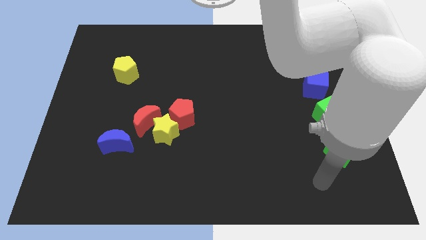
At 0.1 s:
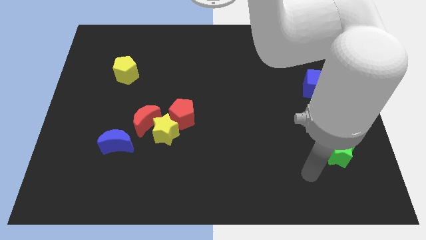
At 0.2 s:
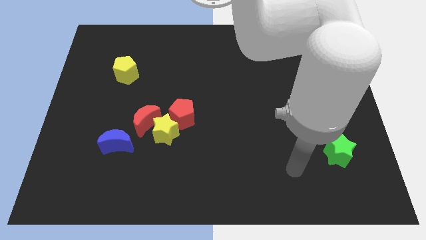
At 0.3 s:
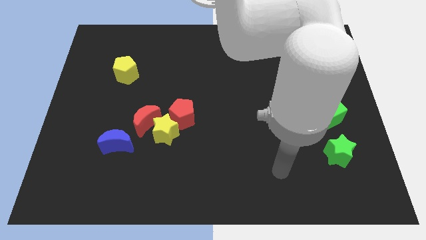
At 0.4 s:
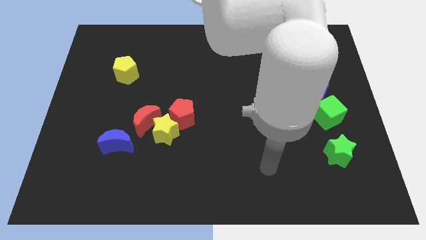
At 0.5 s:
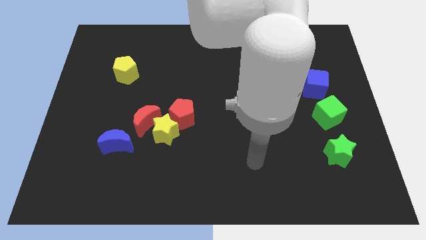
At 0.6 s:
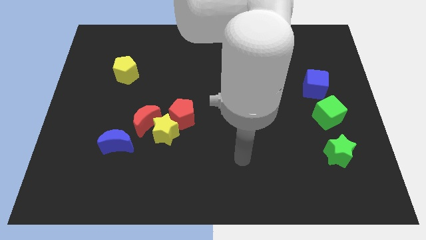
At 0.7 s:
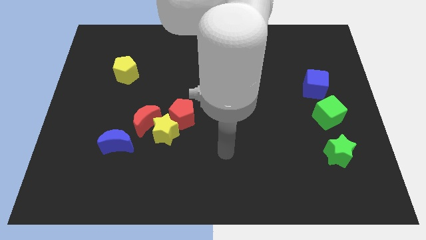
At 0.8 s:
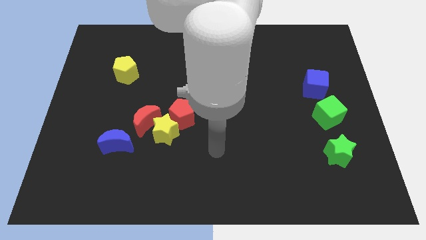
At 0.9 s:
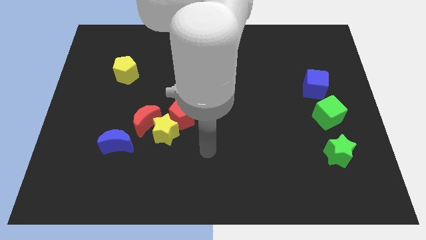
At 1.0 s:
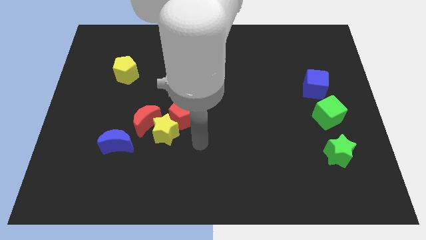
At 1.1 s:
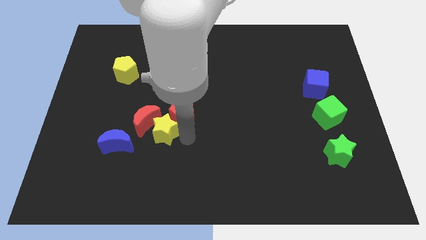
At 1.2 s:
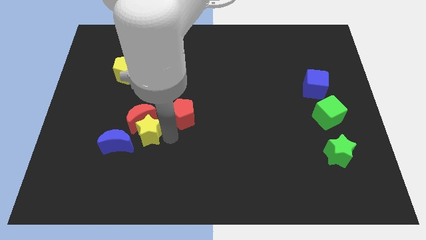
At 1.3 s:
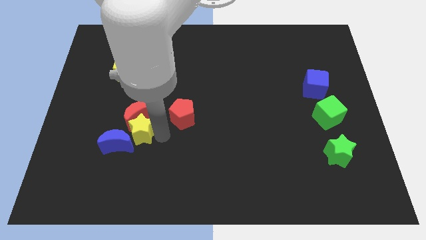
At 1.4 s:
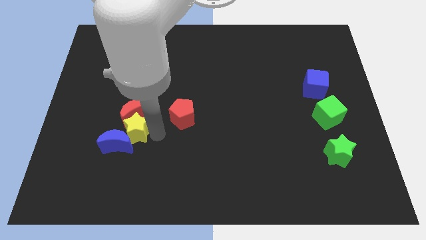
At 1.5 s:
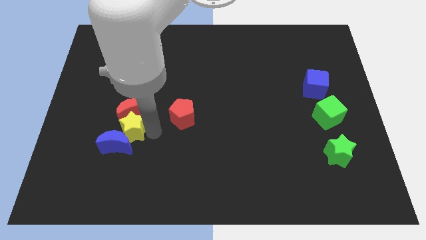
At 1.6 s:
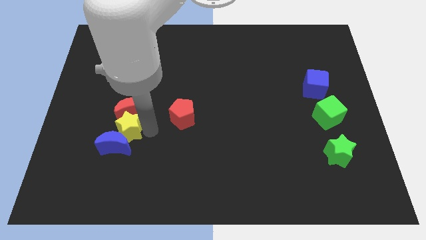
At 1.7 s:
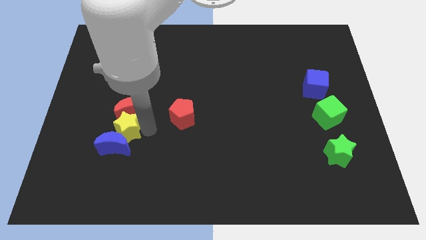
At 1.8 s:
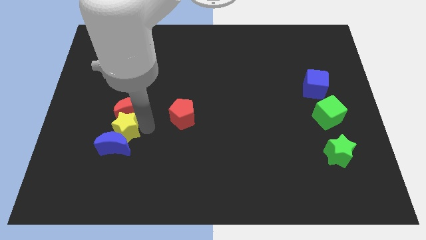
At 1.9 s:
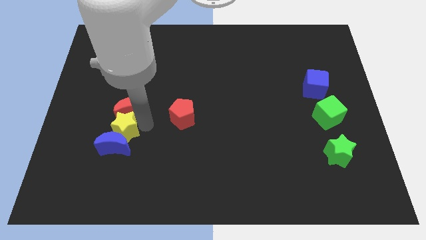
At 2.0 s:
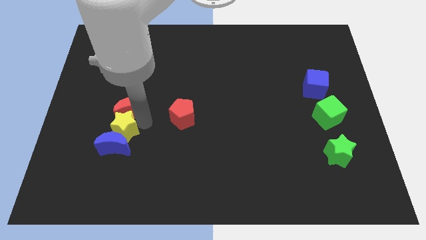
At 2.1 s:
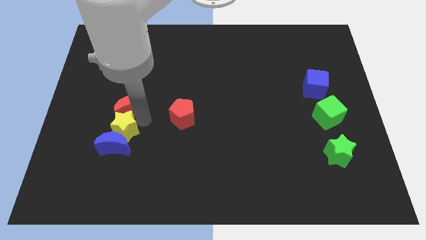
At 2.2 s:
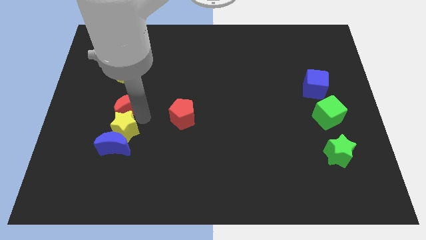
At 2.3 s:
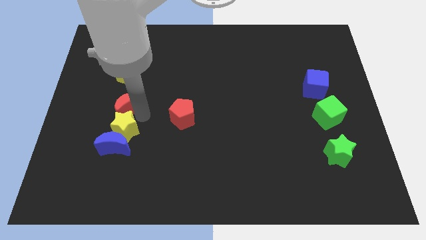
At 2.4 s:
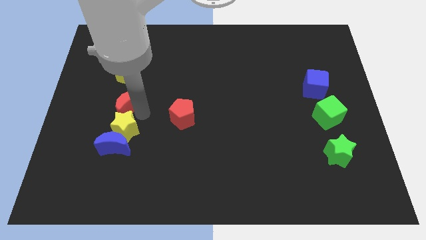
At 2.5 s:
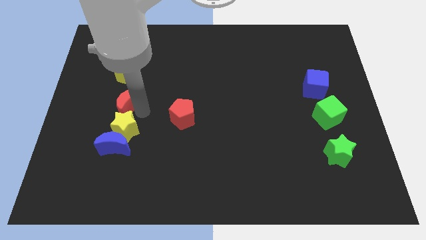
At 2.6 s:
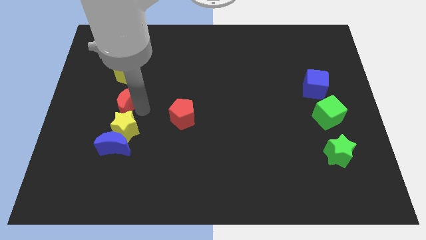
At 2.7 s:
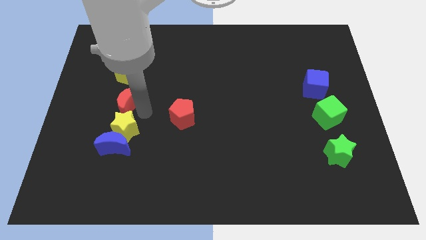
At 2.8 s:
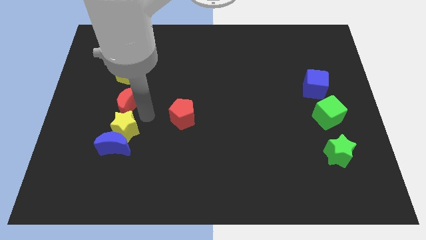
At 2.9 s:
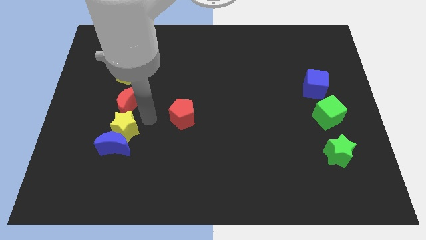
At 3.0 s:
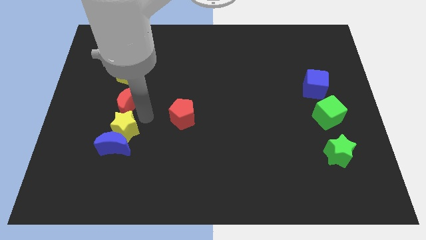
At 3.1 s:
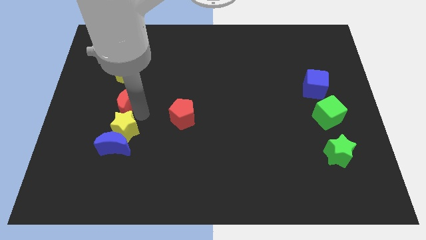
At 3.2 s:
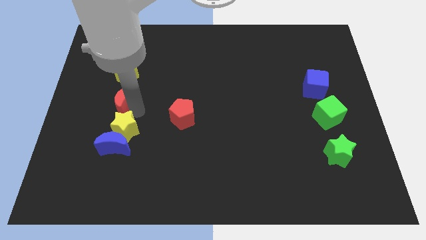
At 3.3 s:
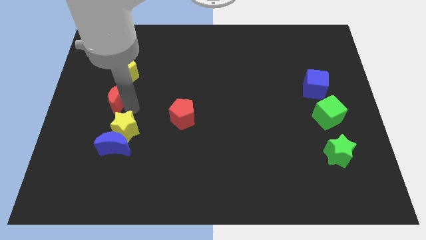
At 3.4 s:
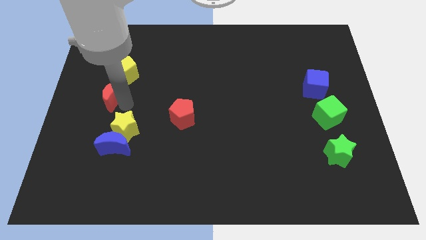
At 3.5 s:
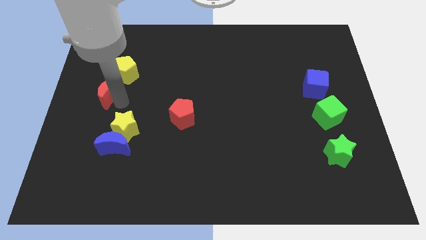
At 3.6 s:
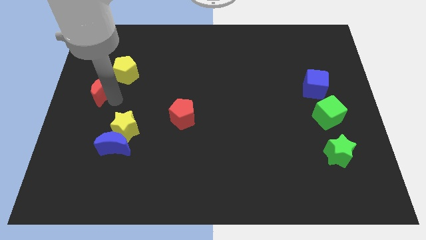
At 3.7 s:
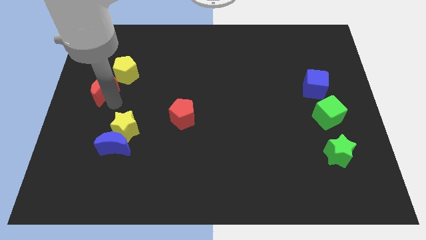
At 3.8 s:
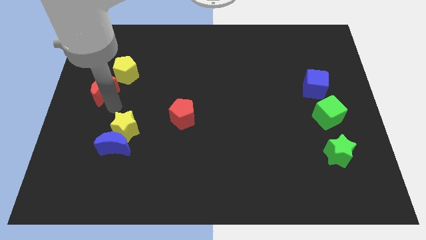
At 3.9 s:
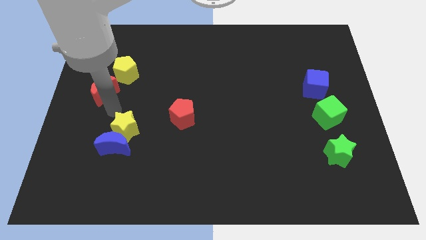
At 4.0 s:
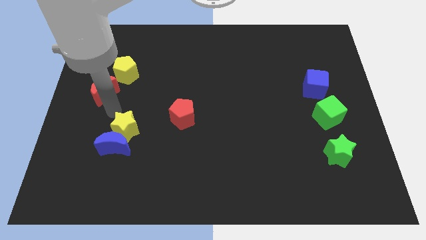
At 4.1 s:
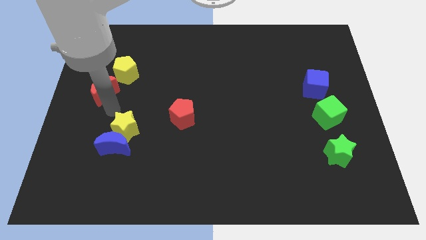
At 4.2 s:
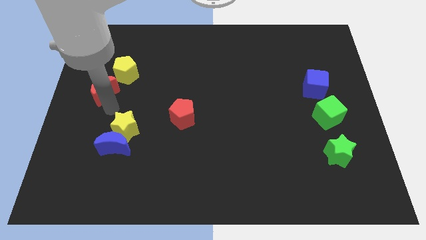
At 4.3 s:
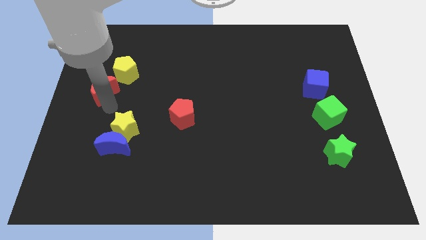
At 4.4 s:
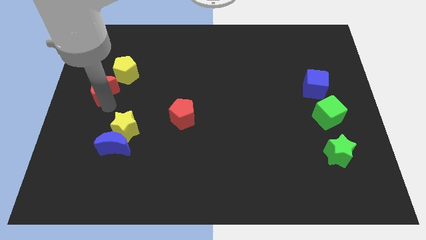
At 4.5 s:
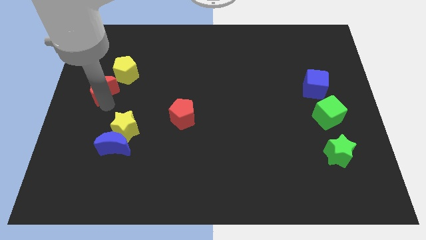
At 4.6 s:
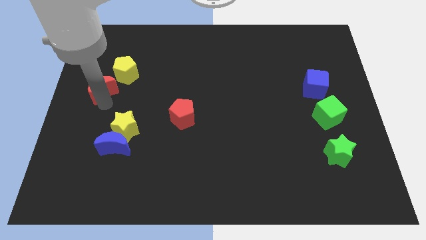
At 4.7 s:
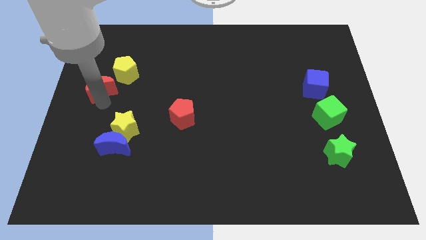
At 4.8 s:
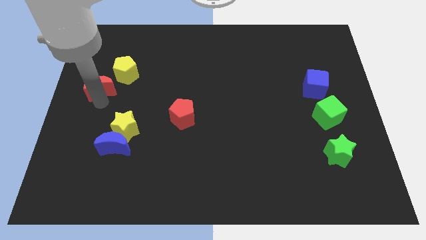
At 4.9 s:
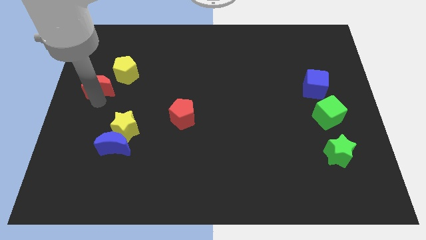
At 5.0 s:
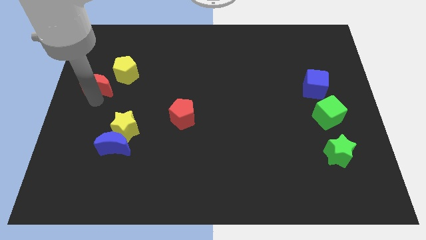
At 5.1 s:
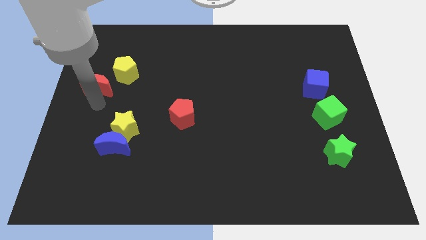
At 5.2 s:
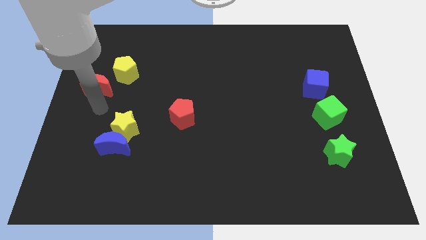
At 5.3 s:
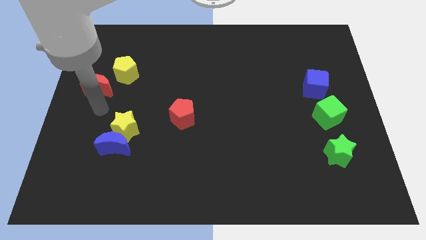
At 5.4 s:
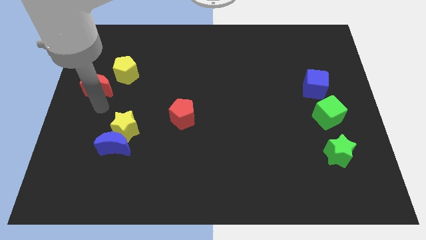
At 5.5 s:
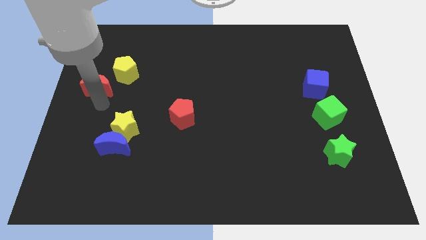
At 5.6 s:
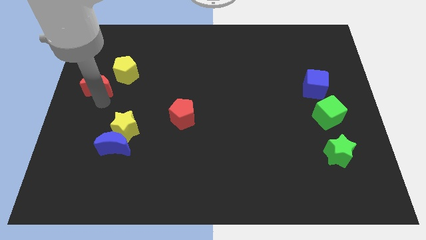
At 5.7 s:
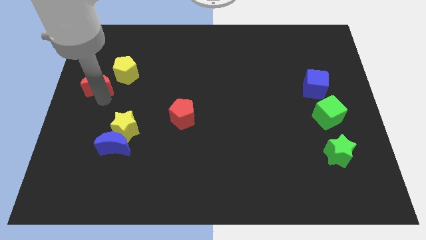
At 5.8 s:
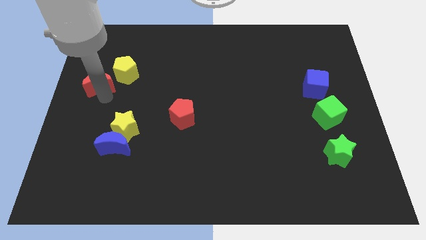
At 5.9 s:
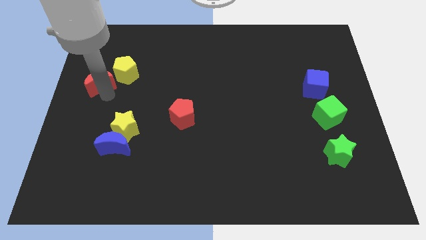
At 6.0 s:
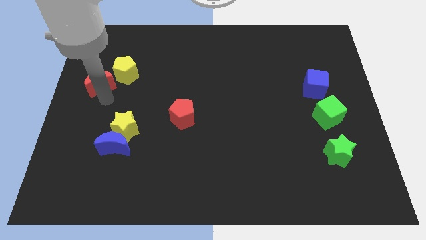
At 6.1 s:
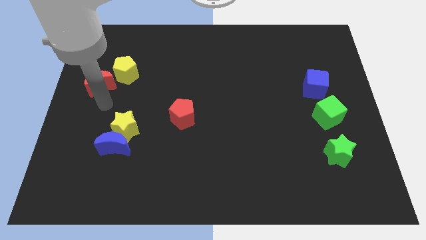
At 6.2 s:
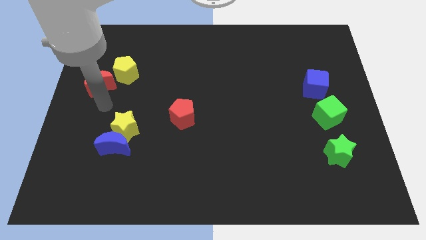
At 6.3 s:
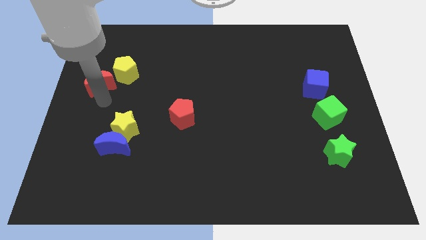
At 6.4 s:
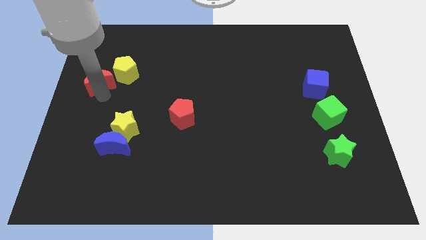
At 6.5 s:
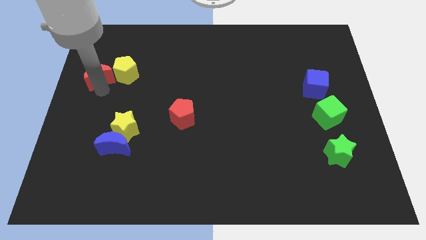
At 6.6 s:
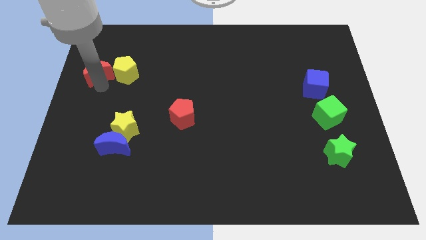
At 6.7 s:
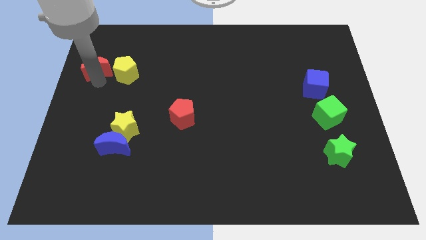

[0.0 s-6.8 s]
put the red moon to the top left of the yellow pentagon
